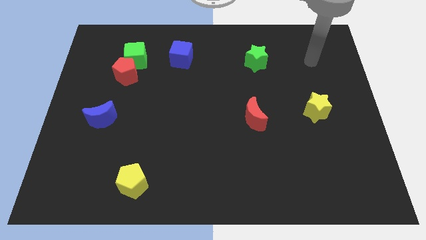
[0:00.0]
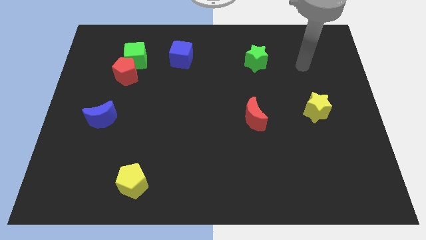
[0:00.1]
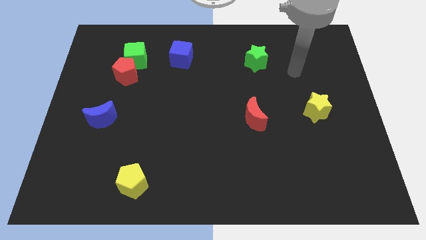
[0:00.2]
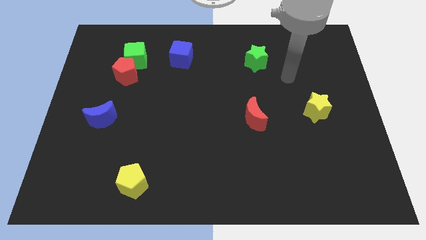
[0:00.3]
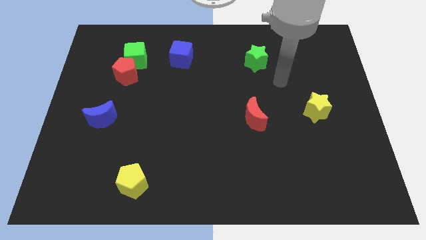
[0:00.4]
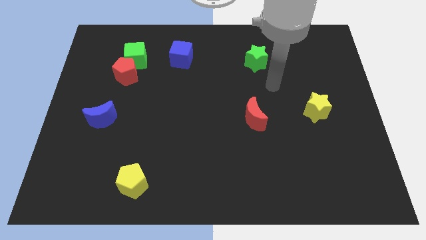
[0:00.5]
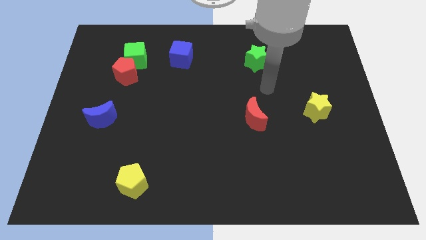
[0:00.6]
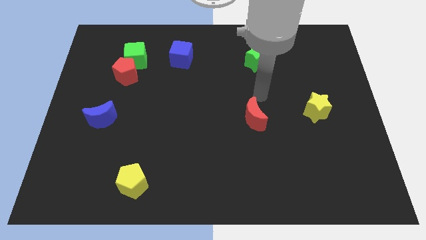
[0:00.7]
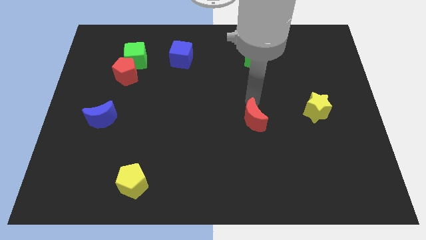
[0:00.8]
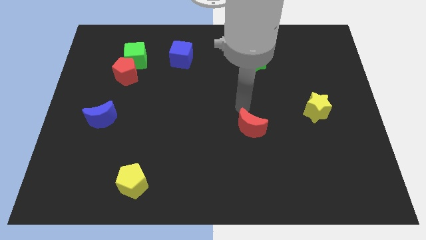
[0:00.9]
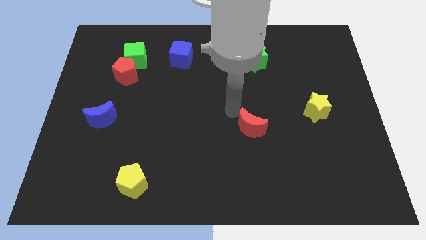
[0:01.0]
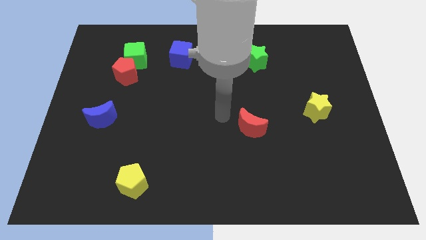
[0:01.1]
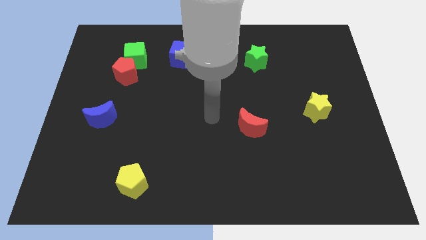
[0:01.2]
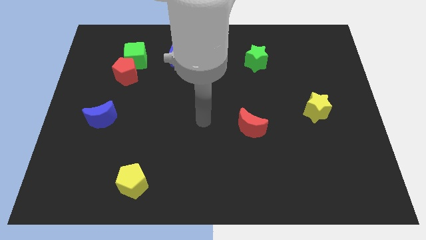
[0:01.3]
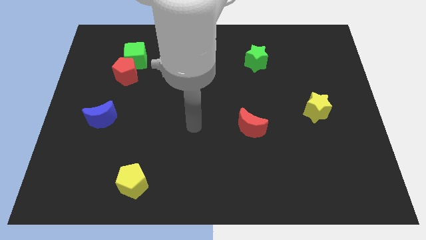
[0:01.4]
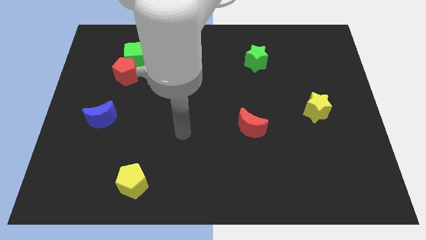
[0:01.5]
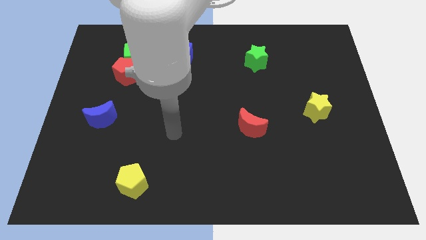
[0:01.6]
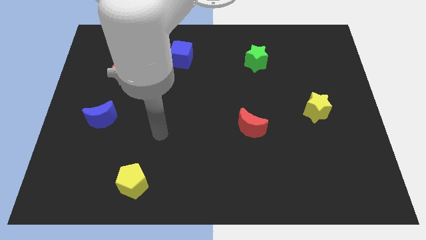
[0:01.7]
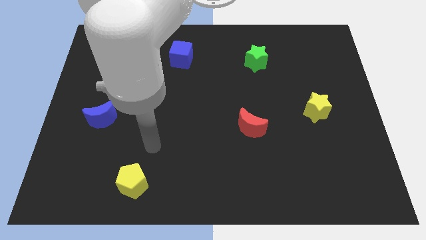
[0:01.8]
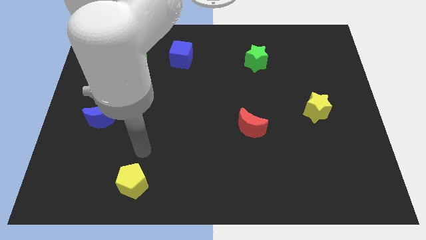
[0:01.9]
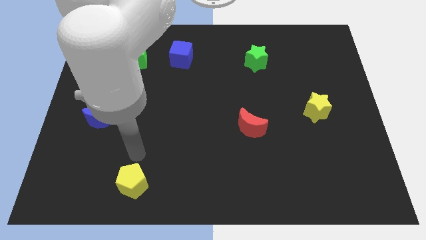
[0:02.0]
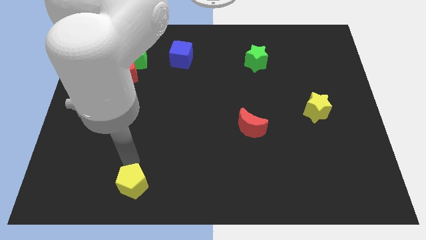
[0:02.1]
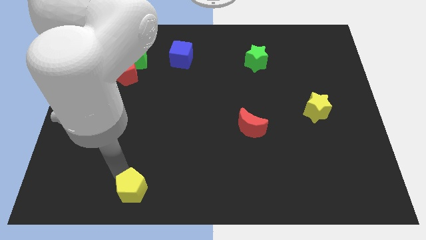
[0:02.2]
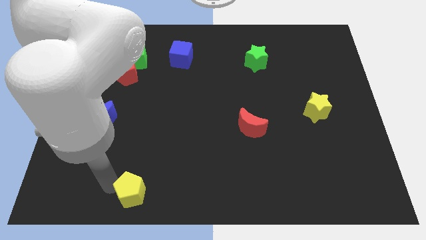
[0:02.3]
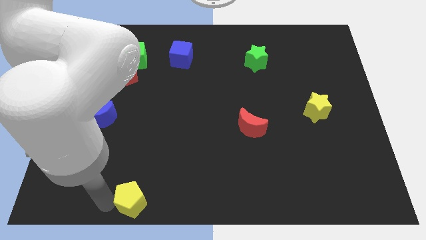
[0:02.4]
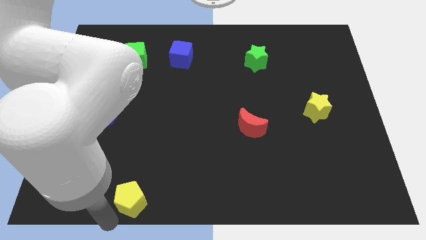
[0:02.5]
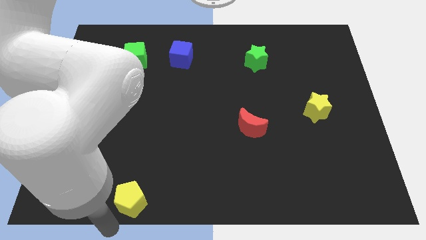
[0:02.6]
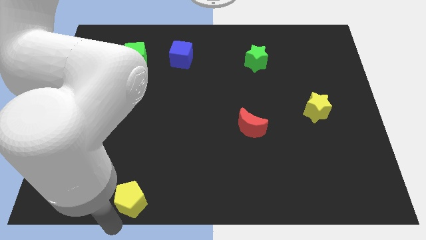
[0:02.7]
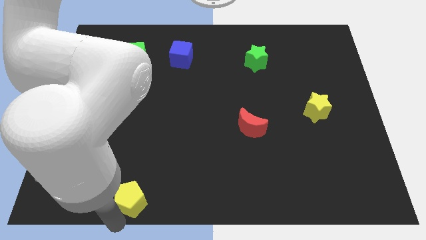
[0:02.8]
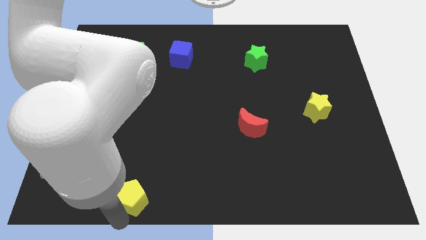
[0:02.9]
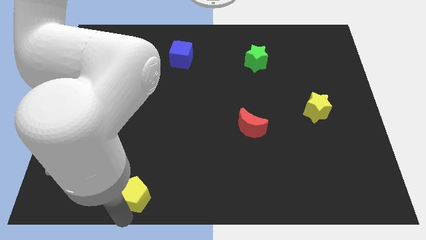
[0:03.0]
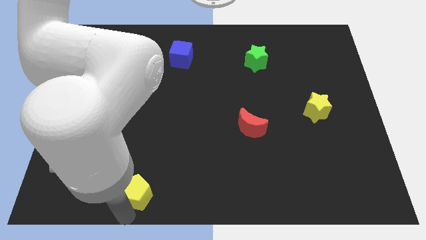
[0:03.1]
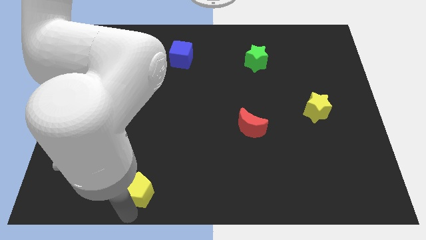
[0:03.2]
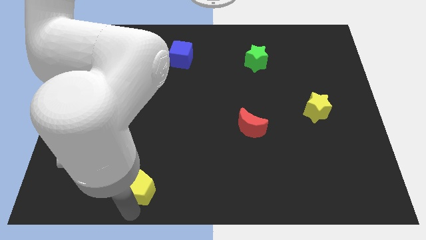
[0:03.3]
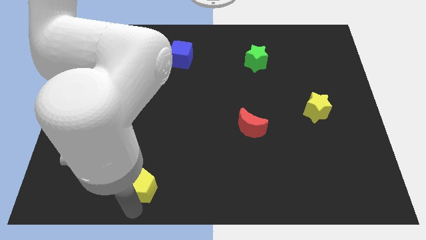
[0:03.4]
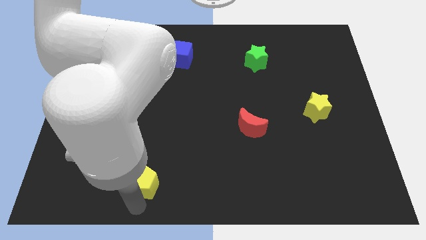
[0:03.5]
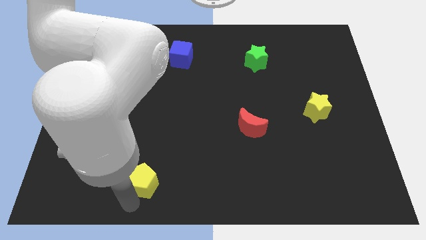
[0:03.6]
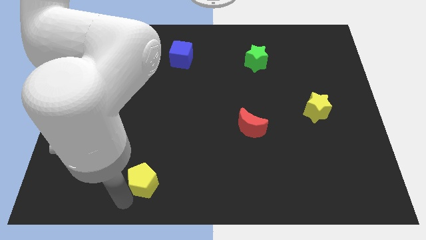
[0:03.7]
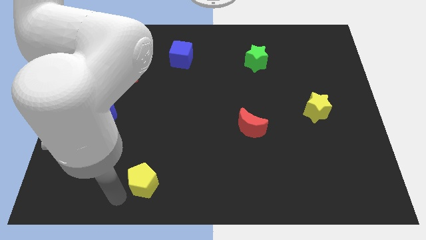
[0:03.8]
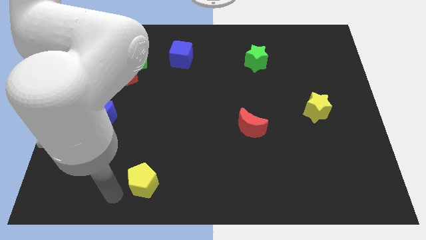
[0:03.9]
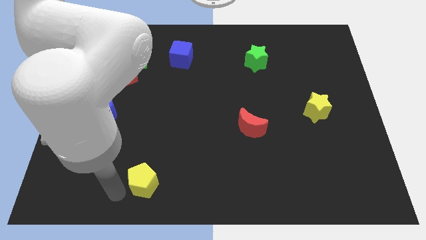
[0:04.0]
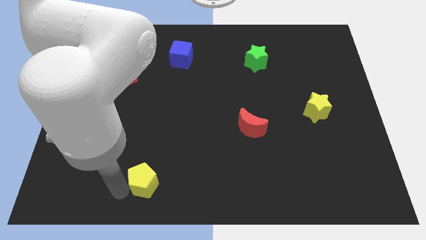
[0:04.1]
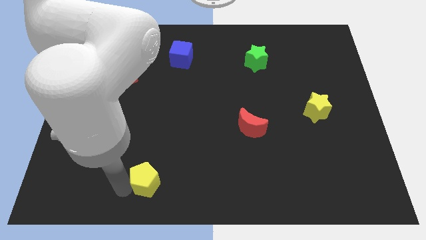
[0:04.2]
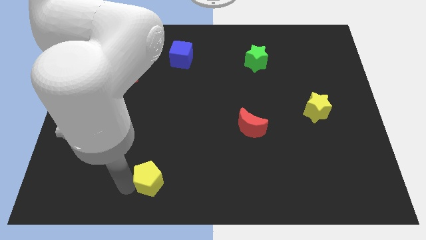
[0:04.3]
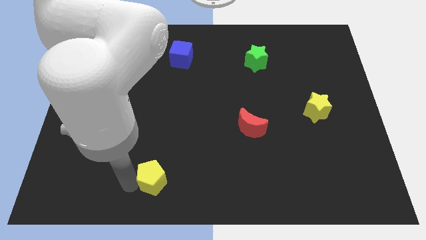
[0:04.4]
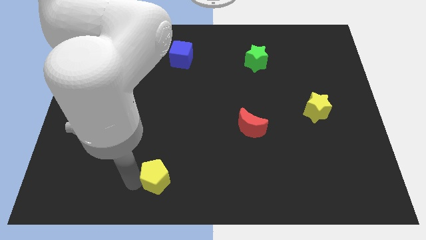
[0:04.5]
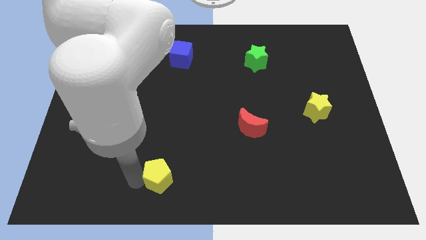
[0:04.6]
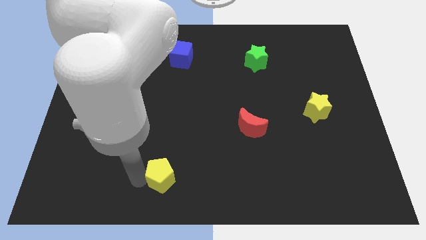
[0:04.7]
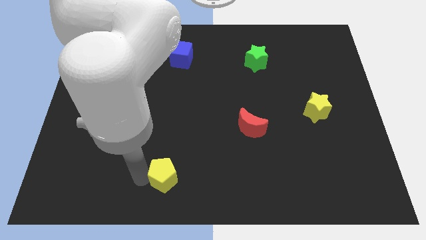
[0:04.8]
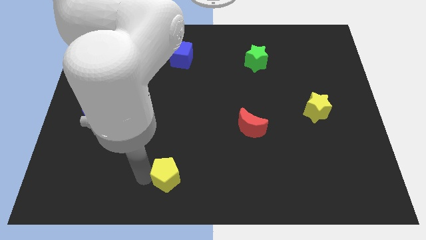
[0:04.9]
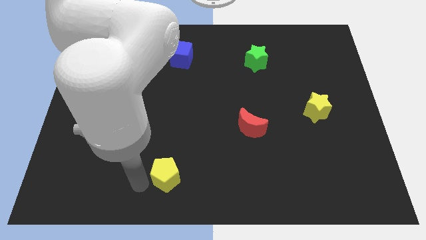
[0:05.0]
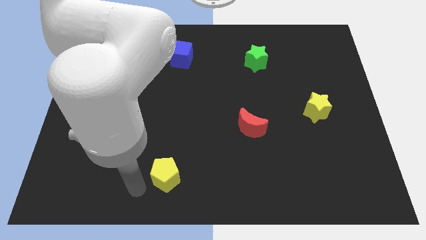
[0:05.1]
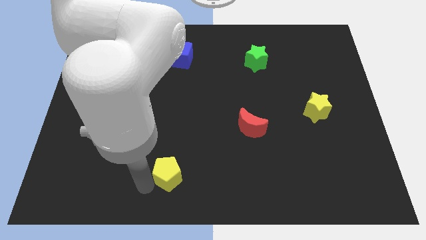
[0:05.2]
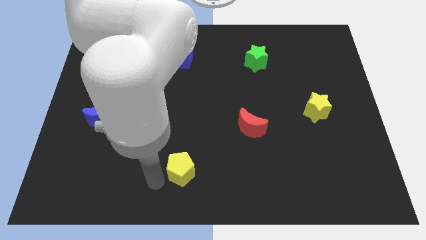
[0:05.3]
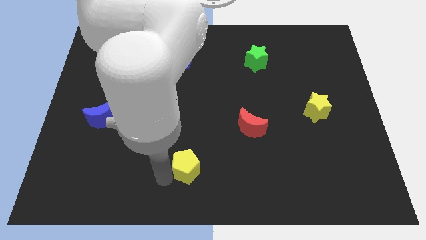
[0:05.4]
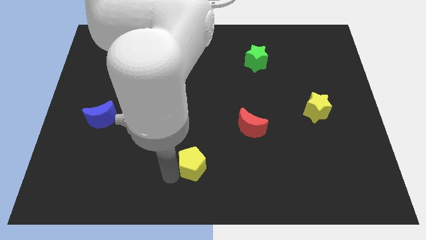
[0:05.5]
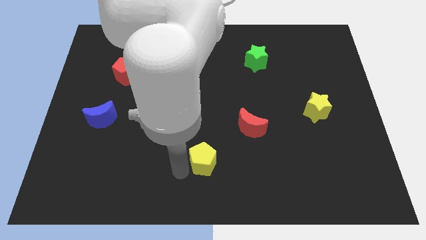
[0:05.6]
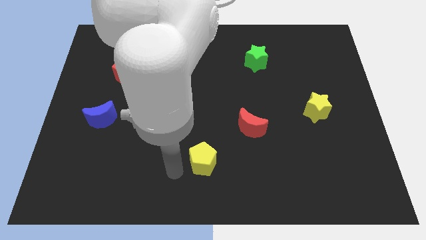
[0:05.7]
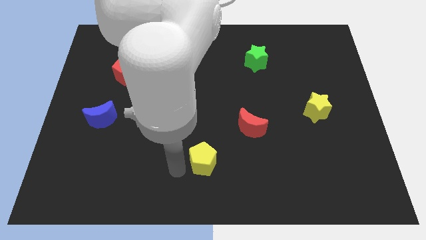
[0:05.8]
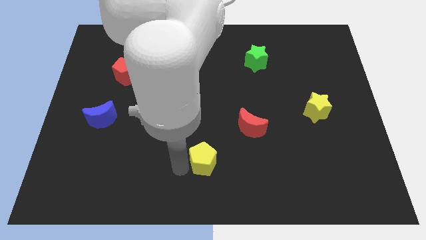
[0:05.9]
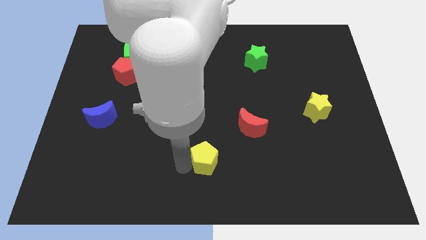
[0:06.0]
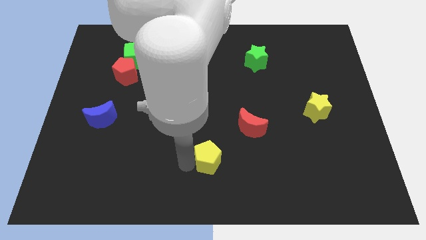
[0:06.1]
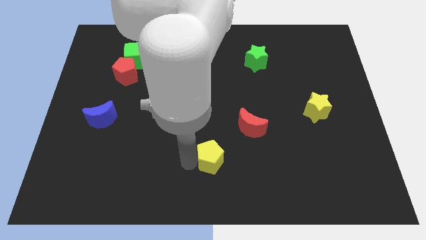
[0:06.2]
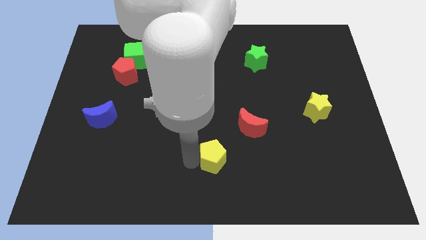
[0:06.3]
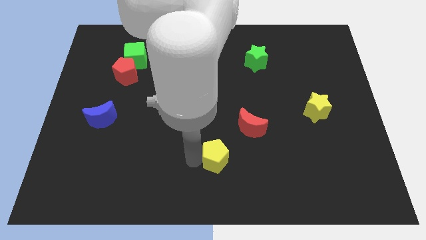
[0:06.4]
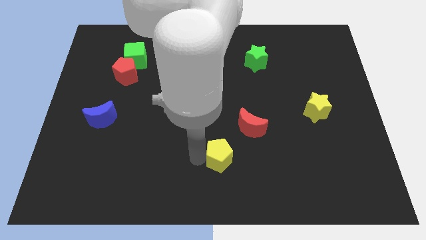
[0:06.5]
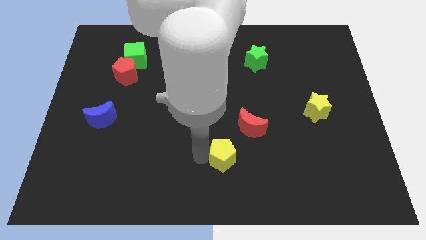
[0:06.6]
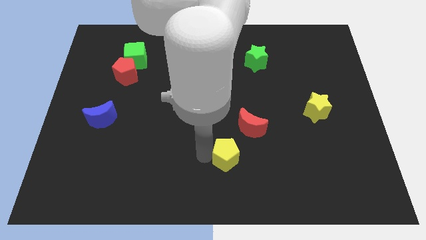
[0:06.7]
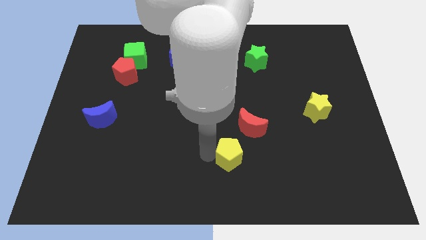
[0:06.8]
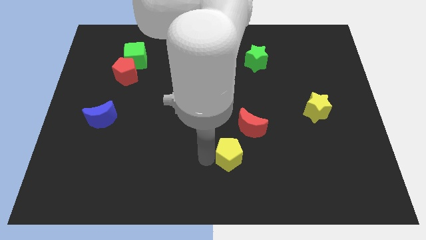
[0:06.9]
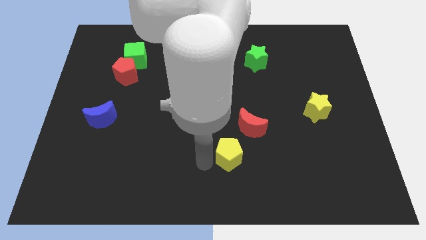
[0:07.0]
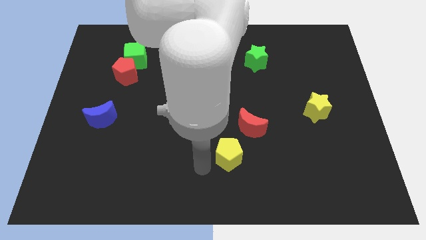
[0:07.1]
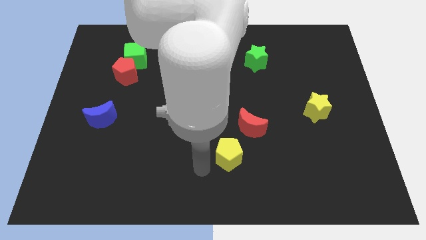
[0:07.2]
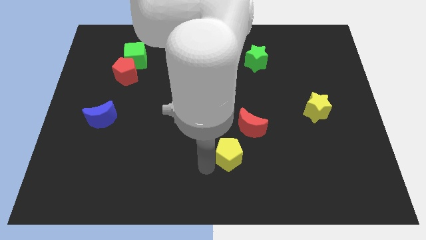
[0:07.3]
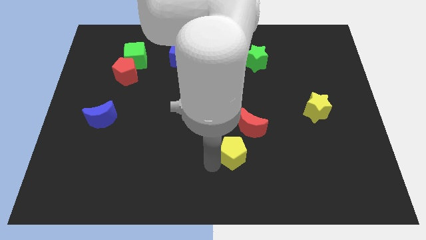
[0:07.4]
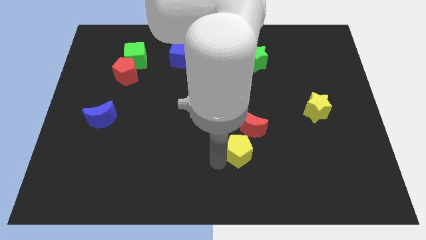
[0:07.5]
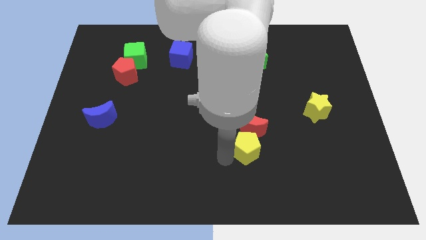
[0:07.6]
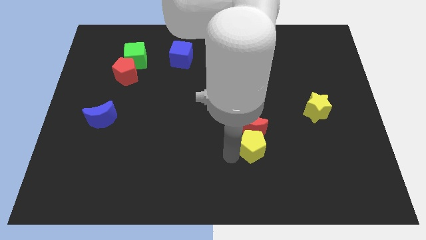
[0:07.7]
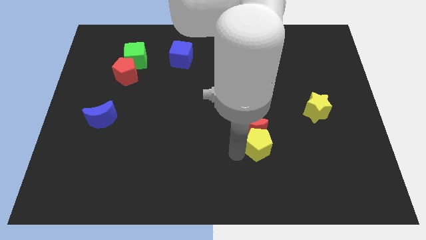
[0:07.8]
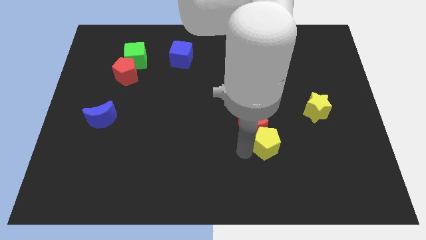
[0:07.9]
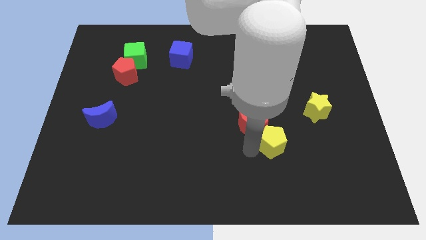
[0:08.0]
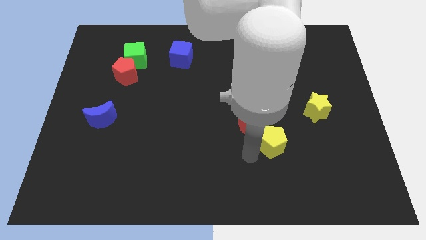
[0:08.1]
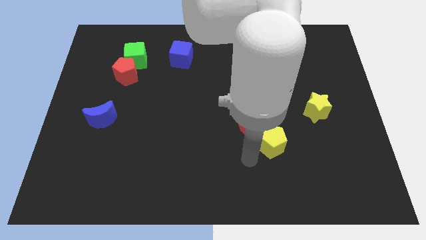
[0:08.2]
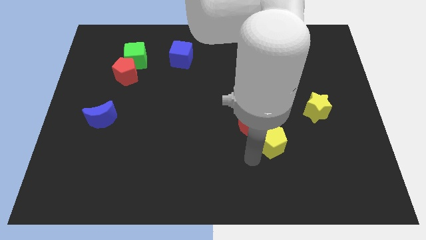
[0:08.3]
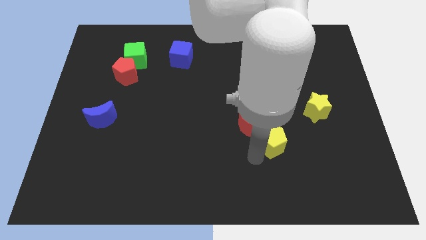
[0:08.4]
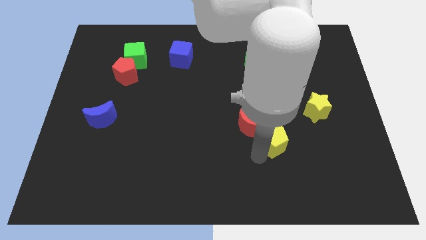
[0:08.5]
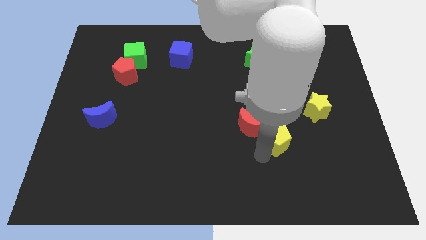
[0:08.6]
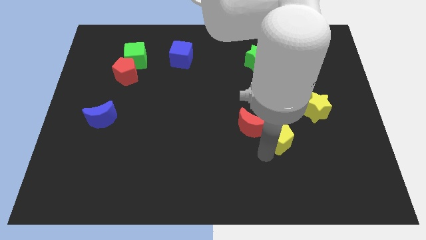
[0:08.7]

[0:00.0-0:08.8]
push the yellow pentagon diagonally down and to the left of the yellow star
